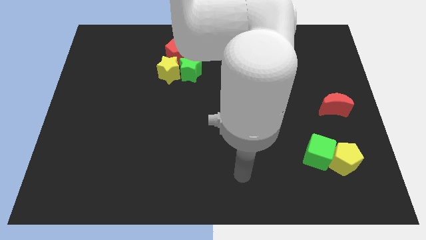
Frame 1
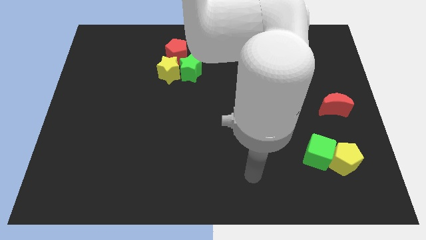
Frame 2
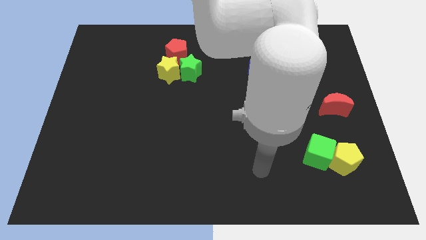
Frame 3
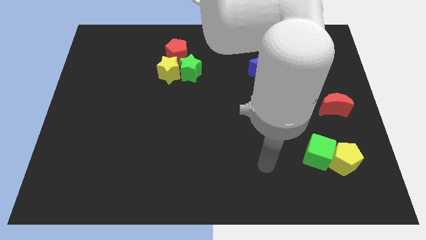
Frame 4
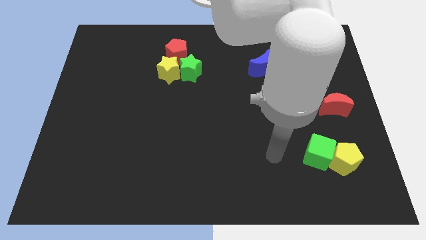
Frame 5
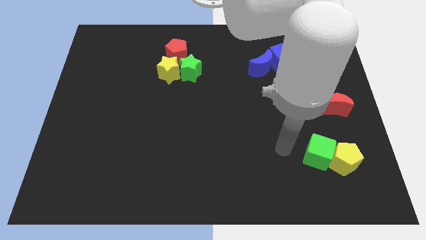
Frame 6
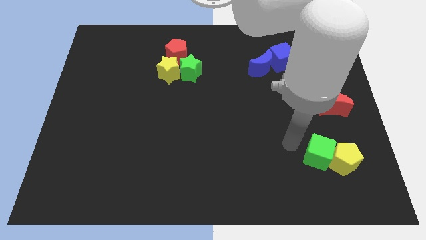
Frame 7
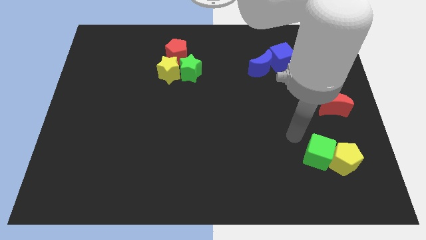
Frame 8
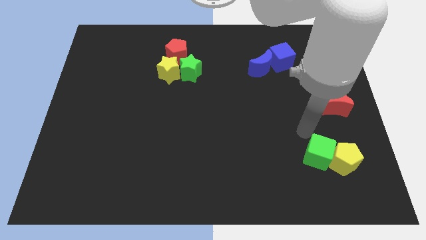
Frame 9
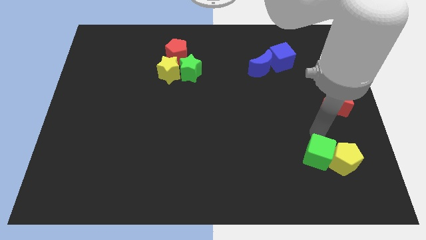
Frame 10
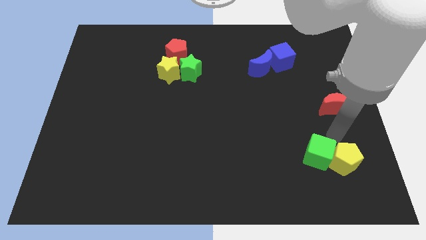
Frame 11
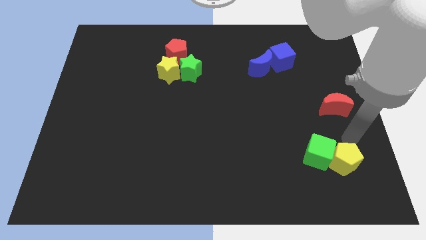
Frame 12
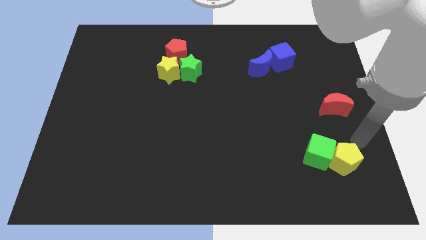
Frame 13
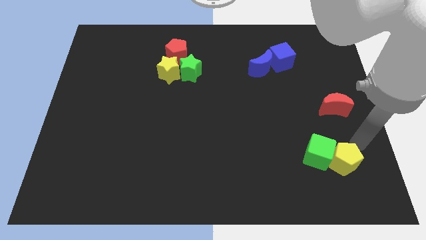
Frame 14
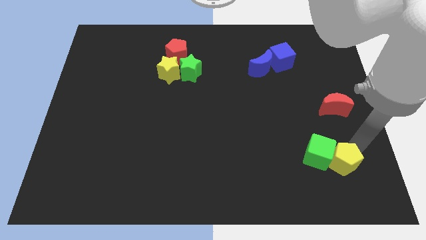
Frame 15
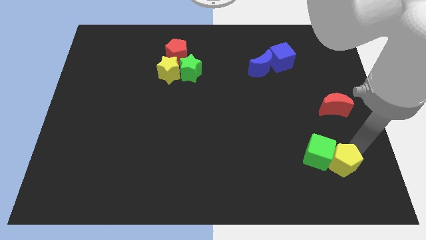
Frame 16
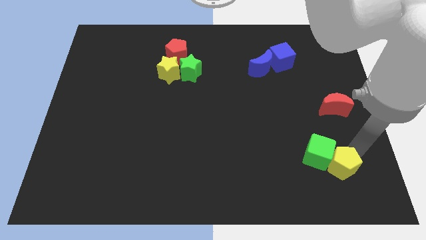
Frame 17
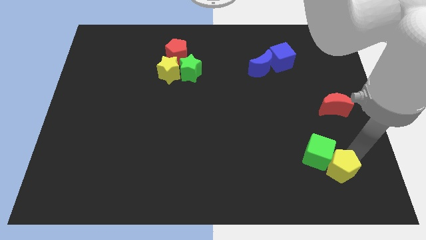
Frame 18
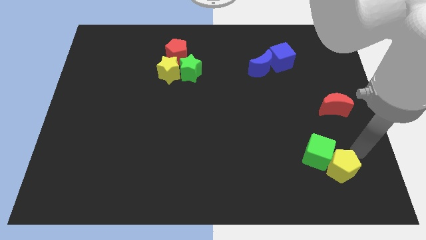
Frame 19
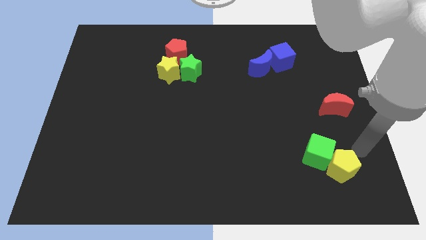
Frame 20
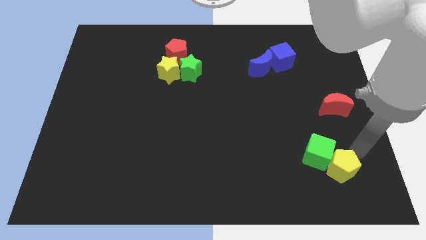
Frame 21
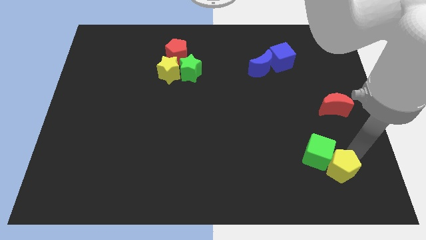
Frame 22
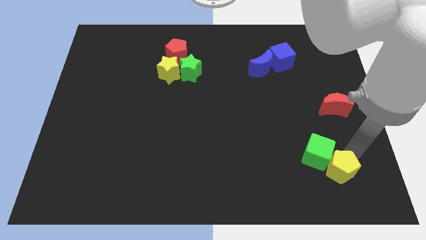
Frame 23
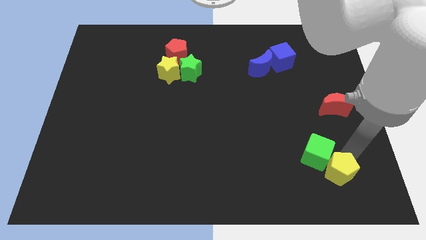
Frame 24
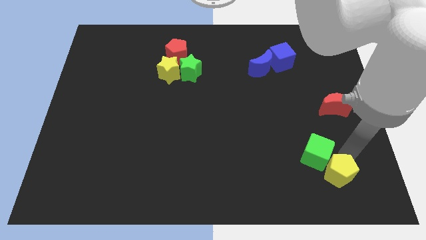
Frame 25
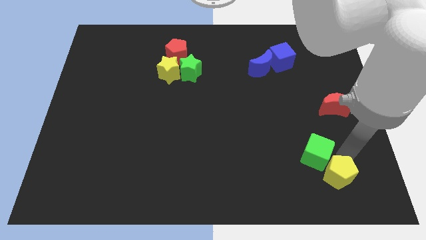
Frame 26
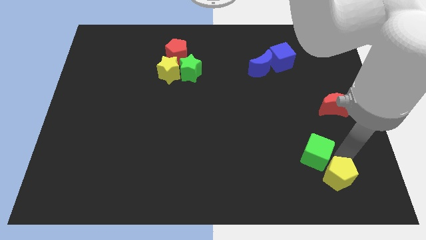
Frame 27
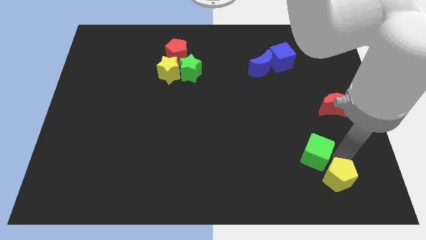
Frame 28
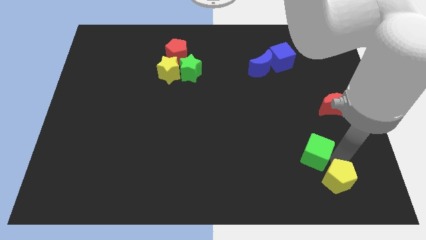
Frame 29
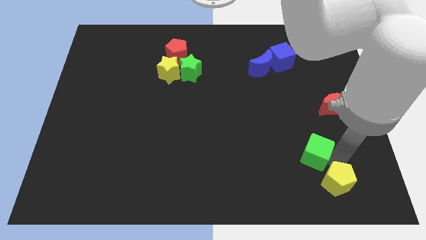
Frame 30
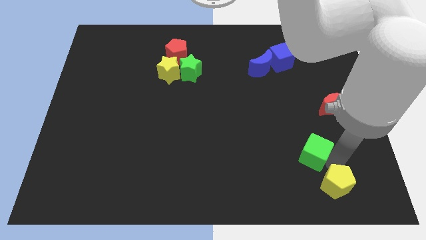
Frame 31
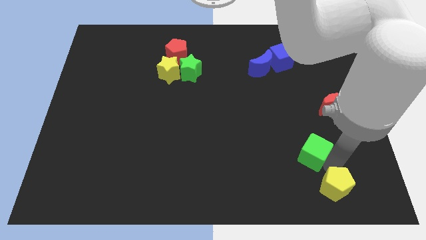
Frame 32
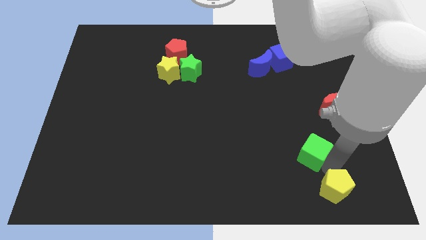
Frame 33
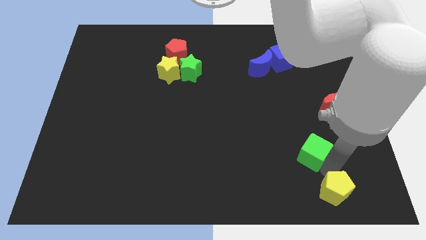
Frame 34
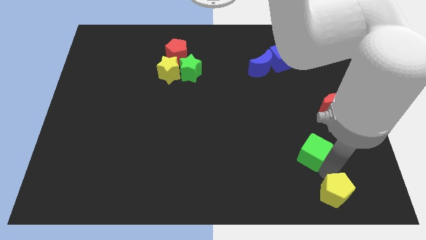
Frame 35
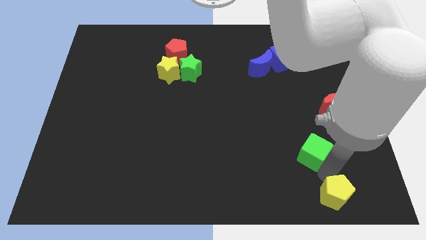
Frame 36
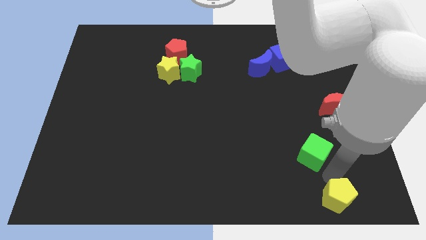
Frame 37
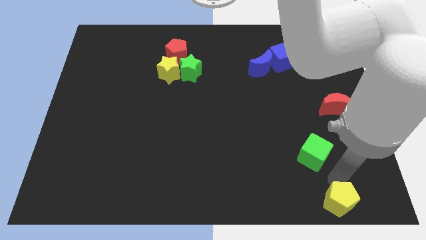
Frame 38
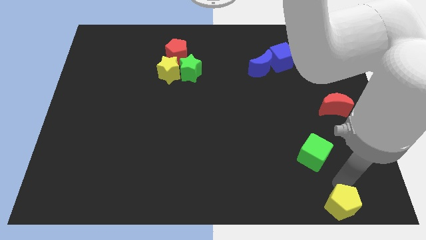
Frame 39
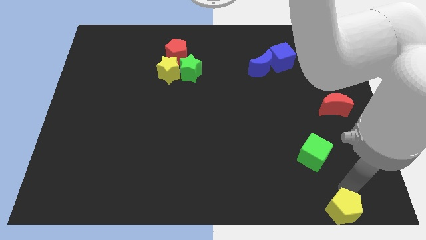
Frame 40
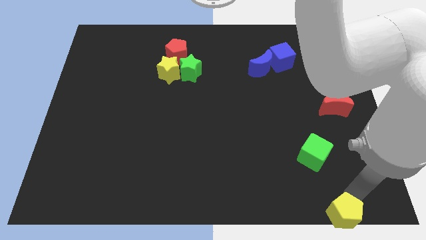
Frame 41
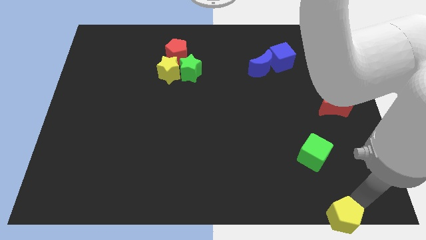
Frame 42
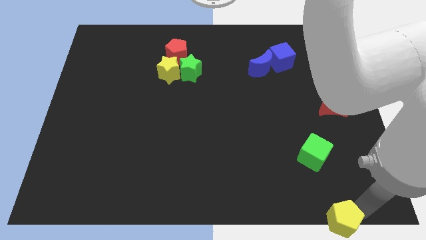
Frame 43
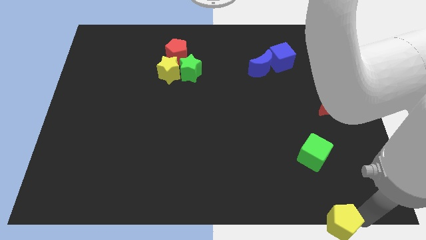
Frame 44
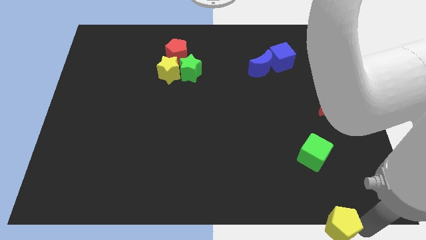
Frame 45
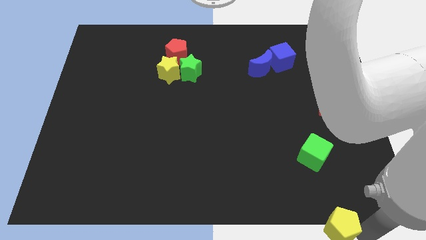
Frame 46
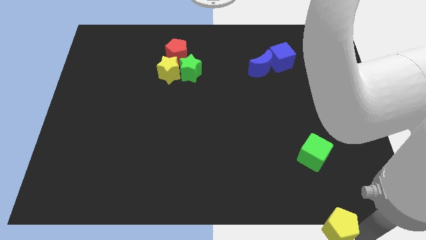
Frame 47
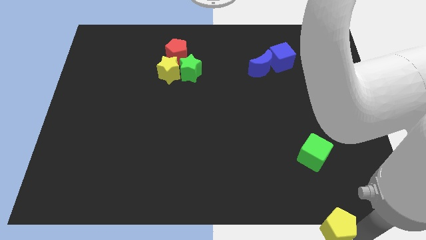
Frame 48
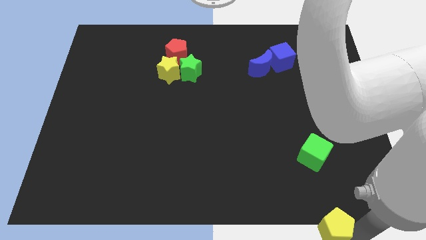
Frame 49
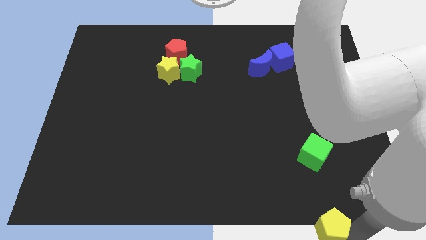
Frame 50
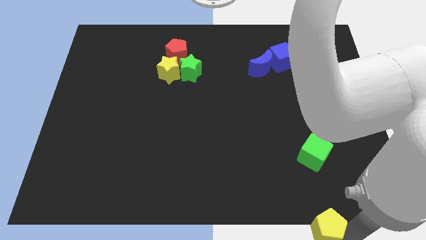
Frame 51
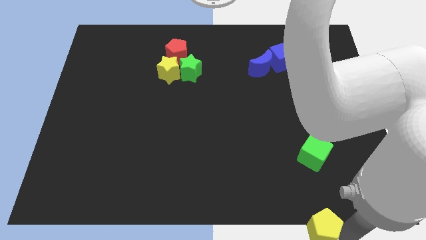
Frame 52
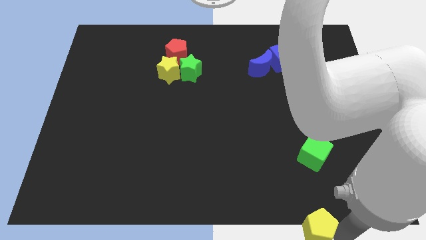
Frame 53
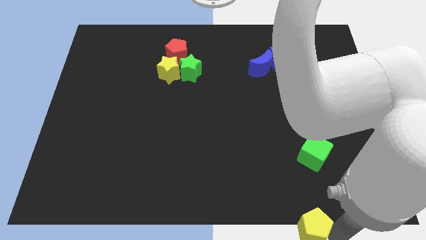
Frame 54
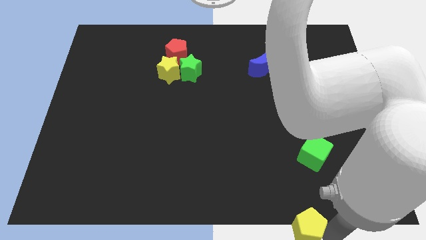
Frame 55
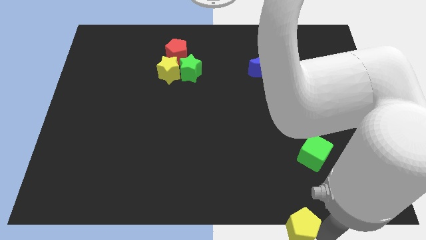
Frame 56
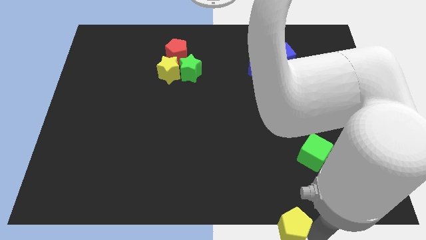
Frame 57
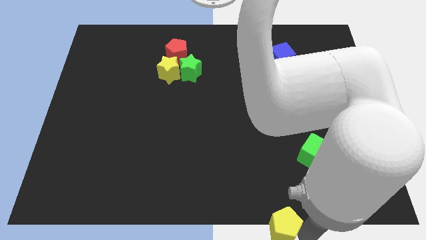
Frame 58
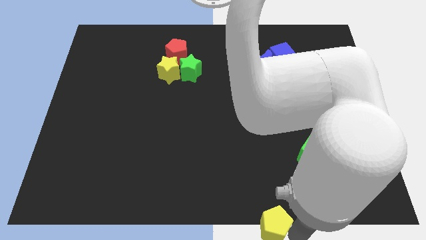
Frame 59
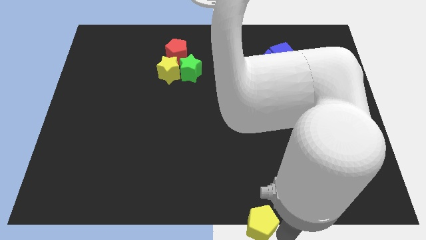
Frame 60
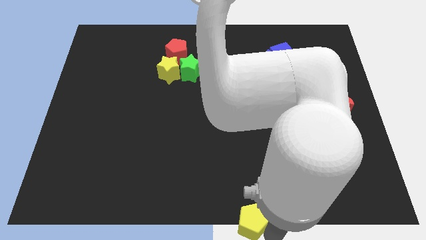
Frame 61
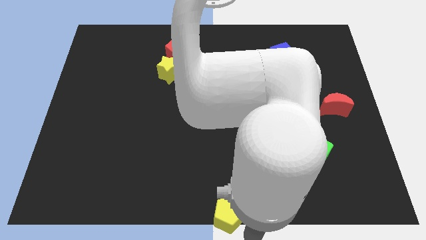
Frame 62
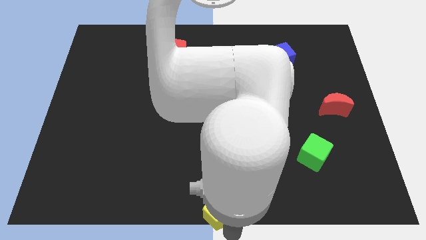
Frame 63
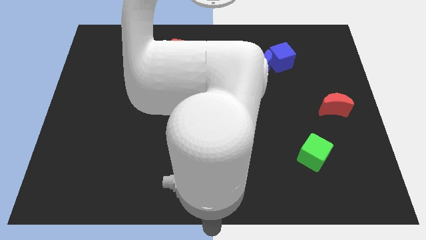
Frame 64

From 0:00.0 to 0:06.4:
push the yellow pentagon left

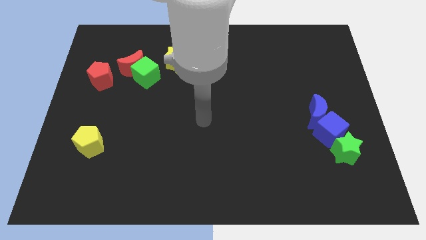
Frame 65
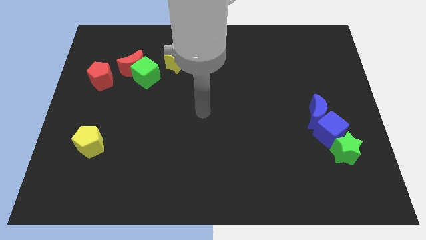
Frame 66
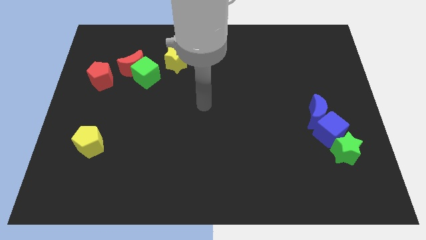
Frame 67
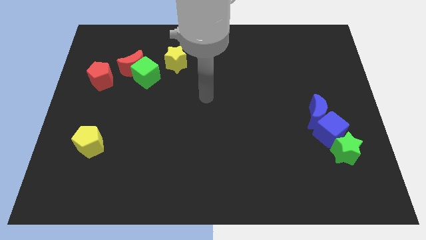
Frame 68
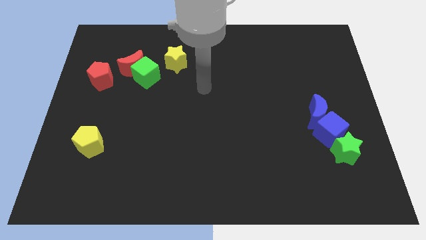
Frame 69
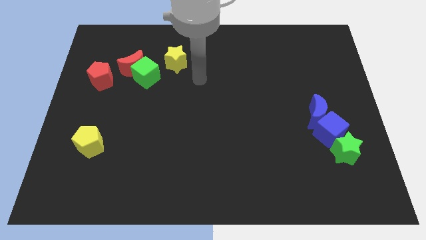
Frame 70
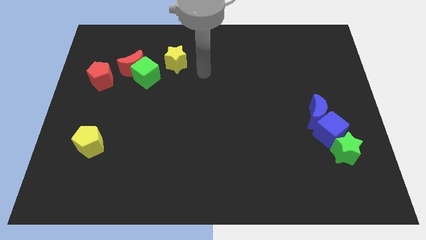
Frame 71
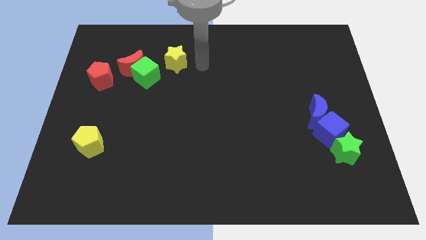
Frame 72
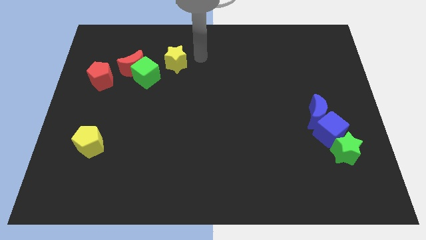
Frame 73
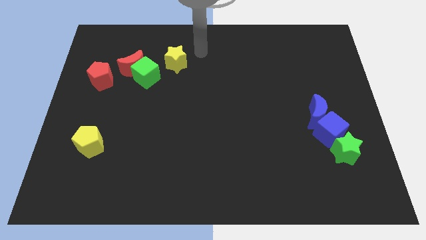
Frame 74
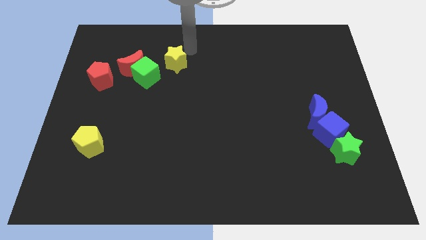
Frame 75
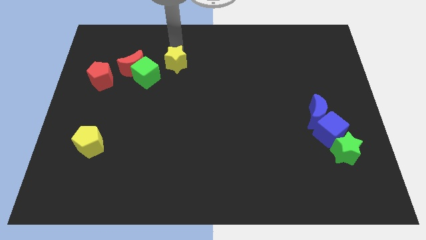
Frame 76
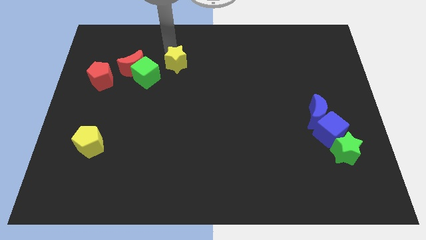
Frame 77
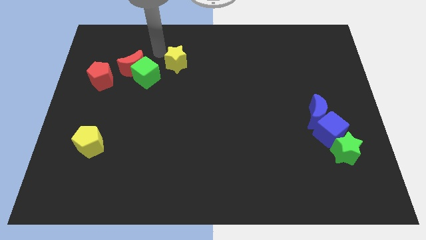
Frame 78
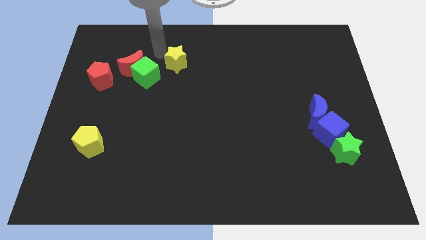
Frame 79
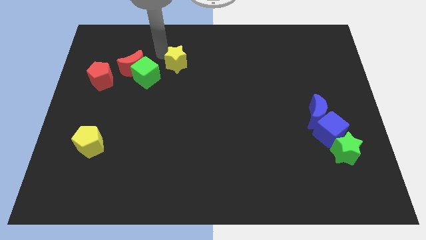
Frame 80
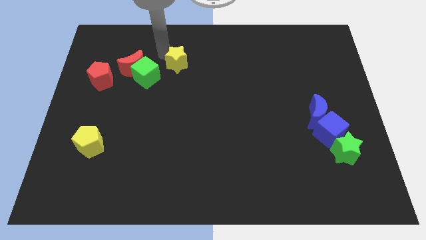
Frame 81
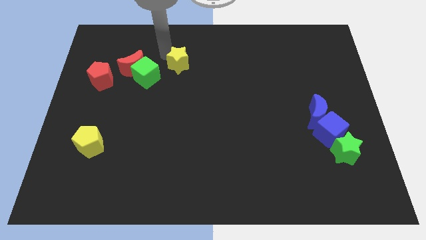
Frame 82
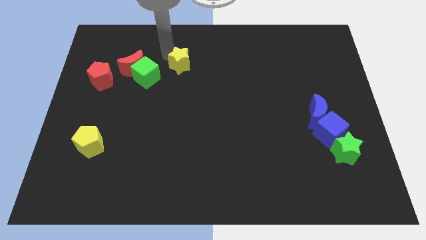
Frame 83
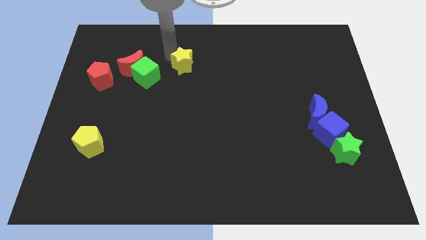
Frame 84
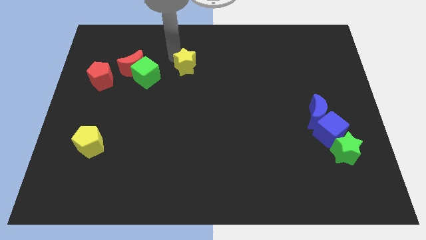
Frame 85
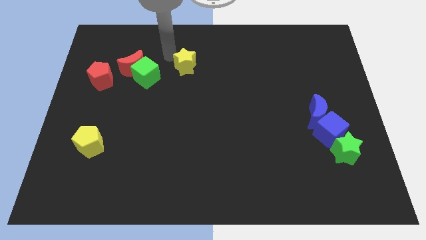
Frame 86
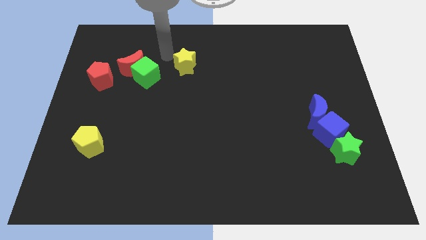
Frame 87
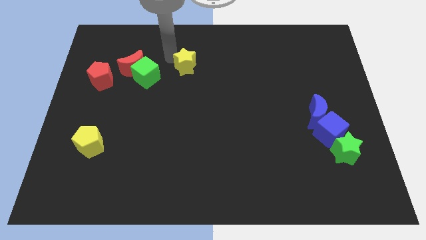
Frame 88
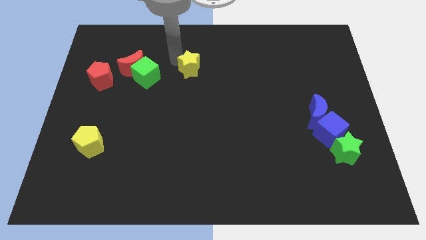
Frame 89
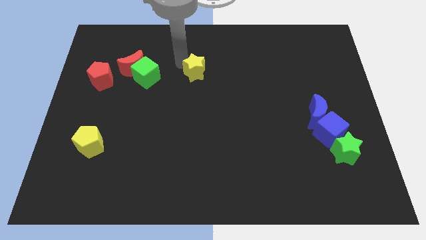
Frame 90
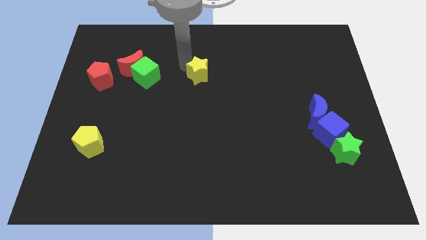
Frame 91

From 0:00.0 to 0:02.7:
push the yellow star a little diagonally downwards and to the right
